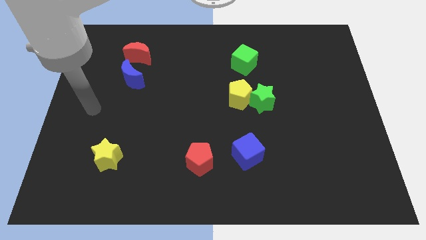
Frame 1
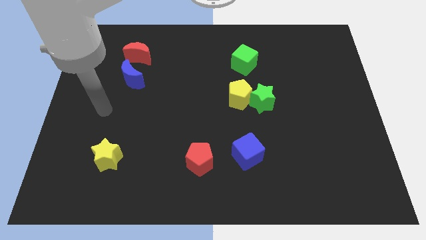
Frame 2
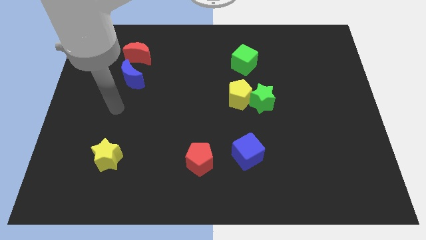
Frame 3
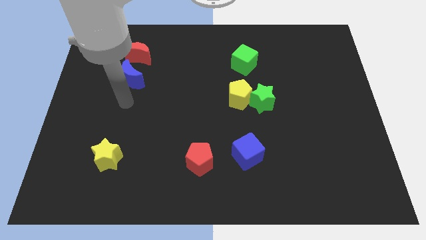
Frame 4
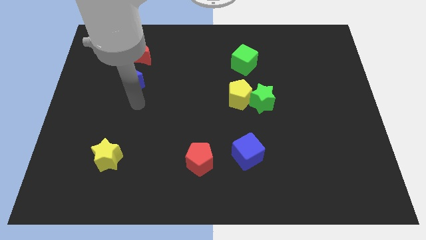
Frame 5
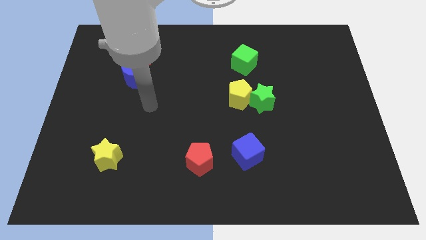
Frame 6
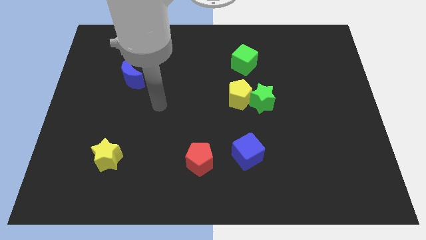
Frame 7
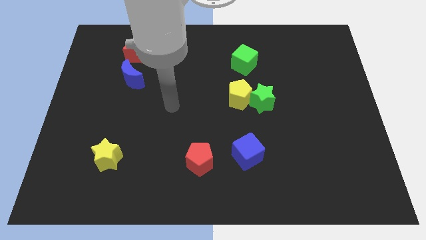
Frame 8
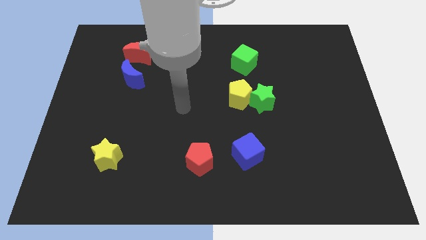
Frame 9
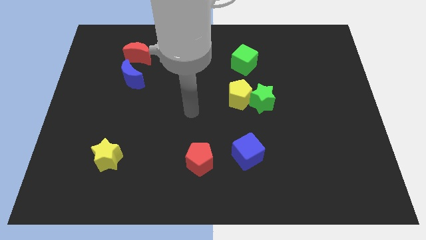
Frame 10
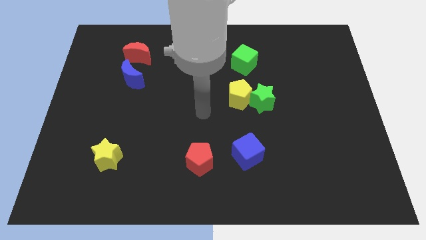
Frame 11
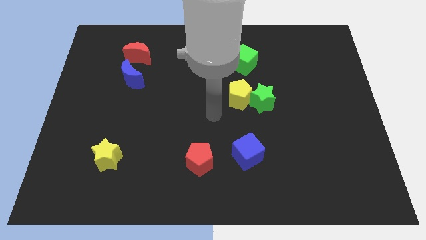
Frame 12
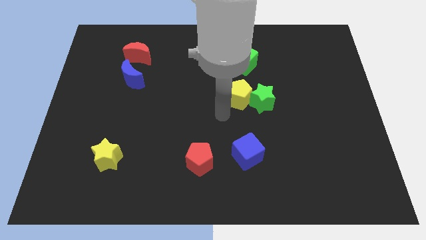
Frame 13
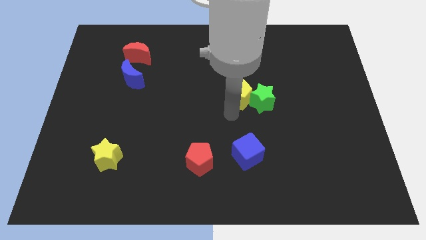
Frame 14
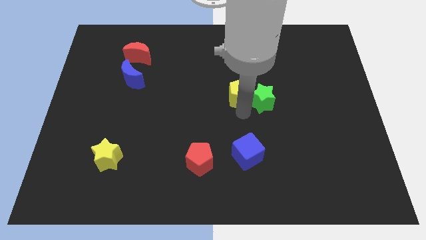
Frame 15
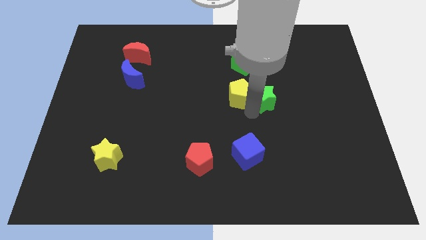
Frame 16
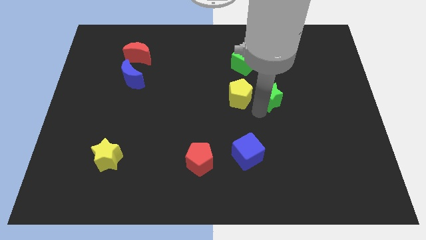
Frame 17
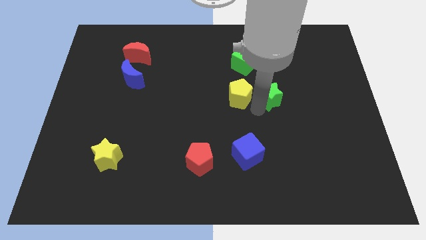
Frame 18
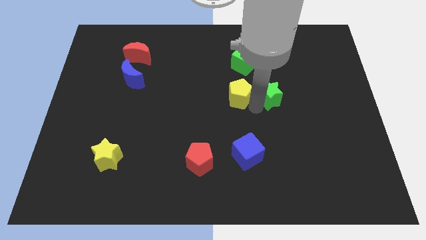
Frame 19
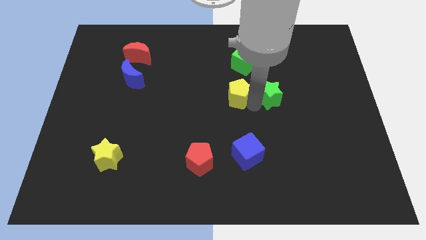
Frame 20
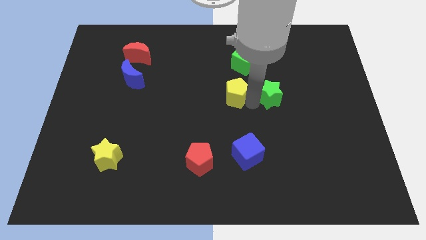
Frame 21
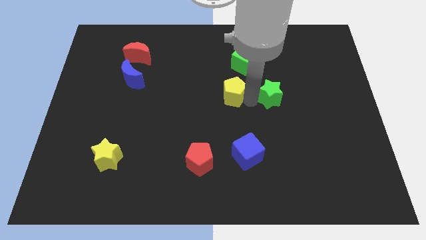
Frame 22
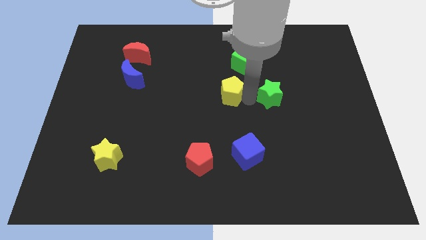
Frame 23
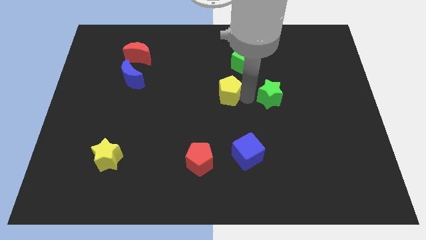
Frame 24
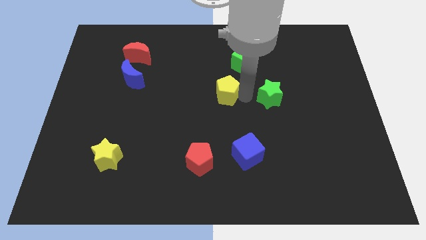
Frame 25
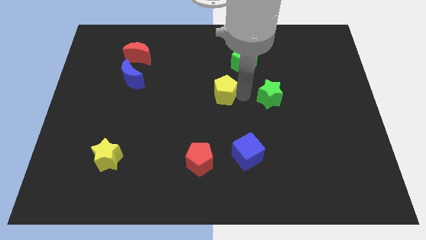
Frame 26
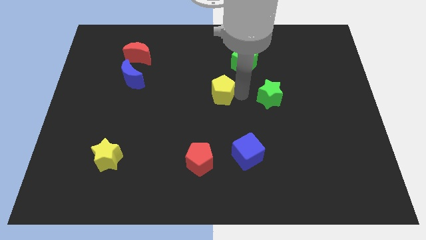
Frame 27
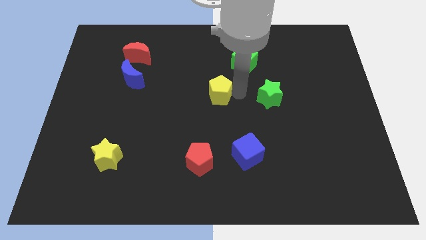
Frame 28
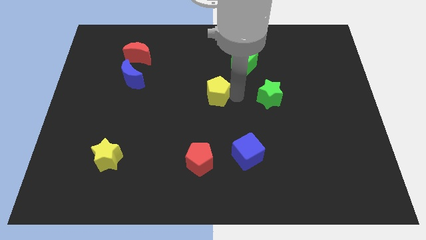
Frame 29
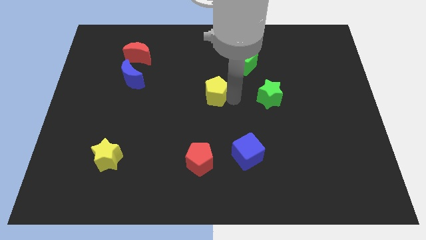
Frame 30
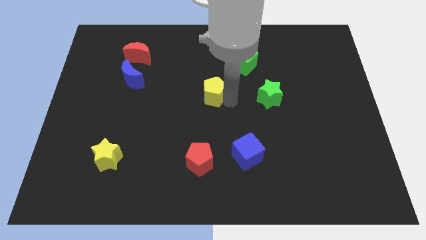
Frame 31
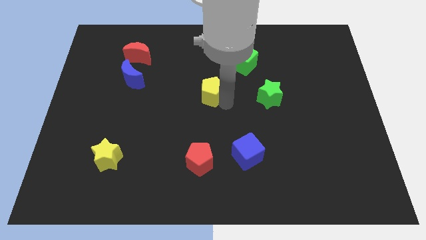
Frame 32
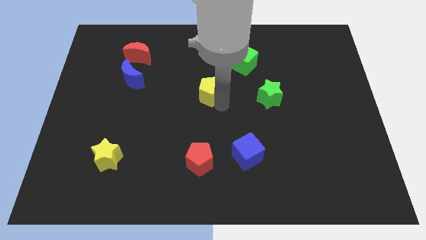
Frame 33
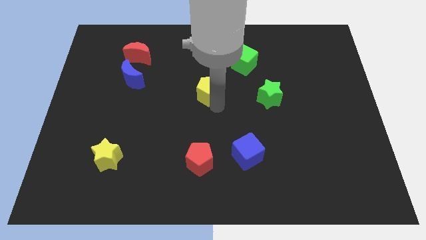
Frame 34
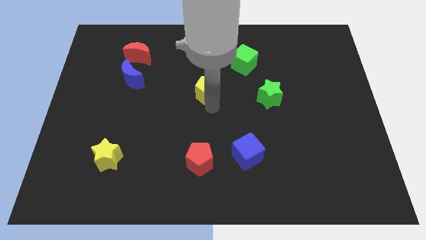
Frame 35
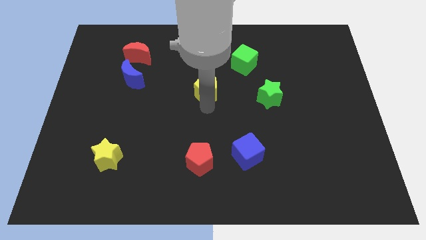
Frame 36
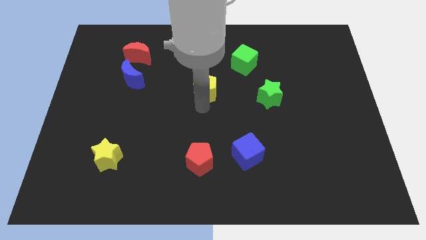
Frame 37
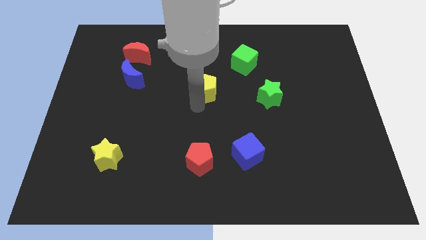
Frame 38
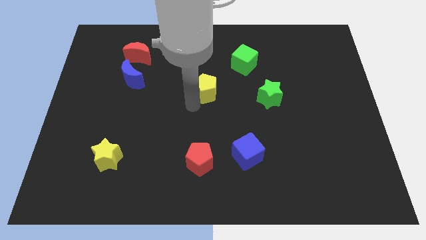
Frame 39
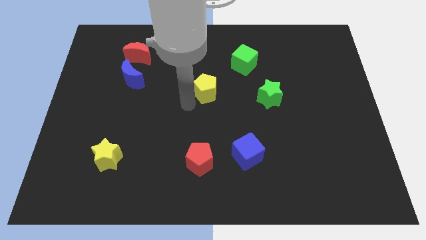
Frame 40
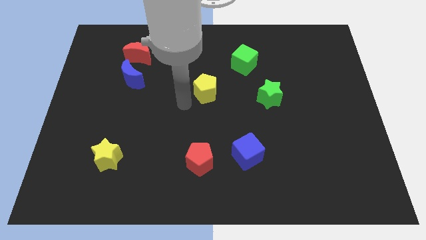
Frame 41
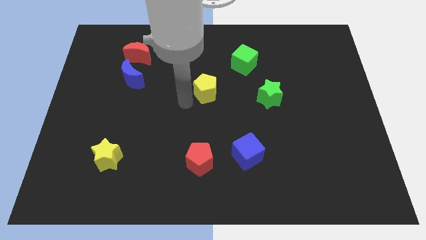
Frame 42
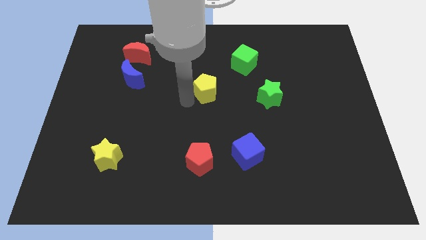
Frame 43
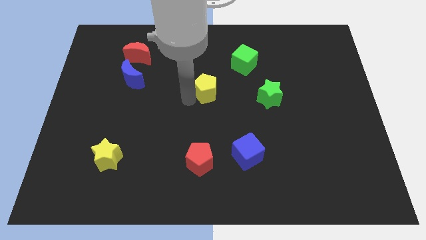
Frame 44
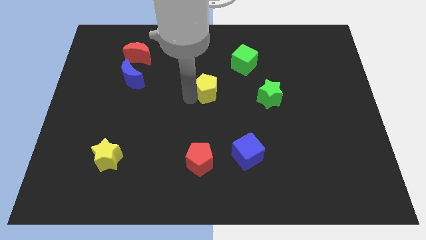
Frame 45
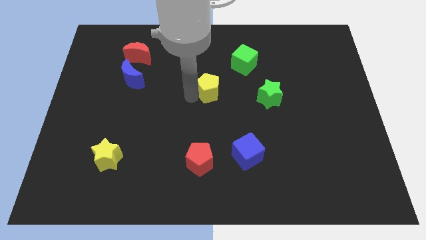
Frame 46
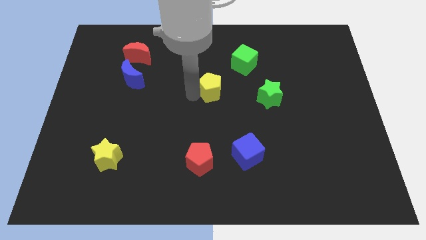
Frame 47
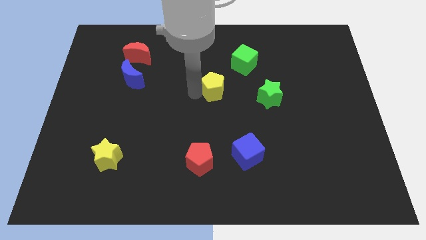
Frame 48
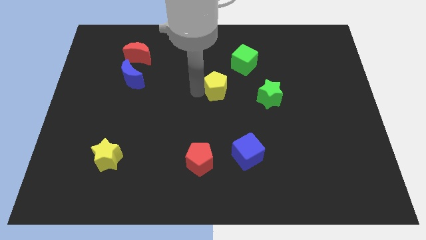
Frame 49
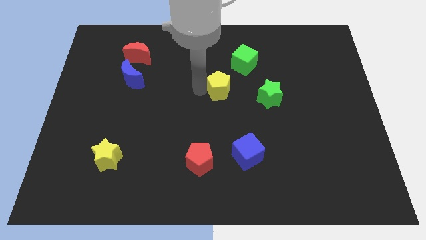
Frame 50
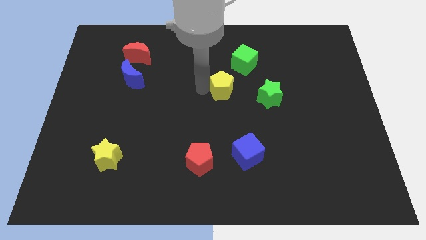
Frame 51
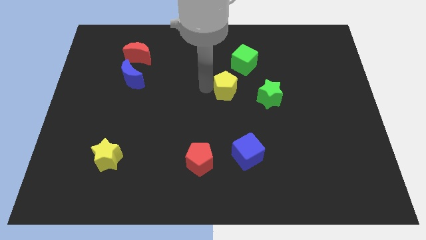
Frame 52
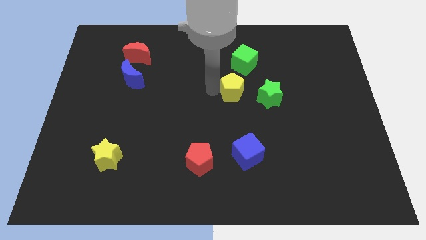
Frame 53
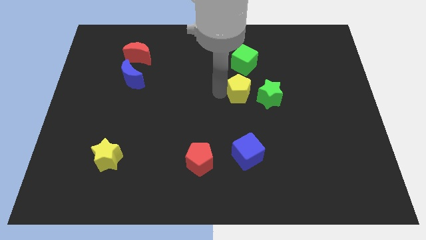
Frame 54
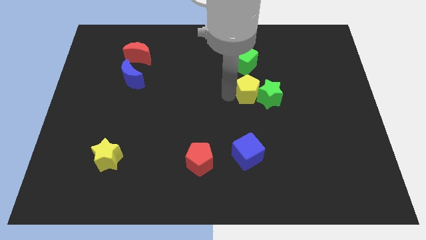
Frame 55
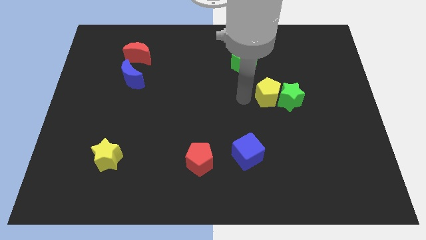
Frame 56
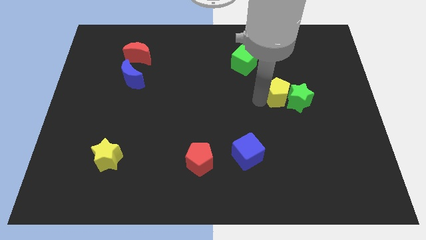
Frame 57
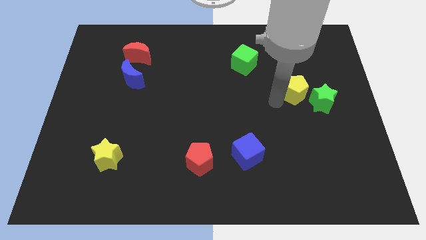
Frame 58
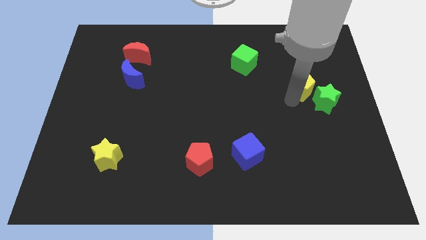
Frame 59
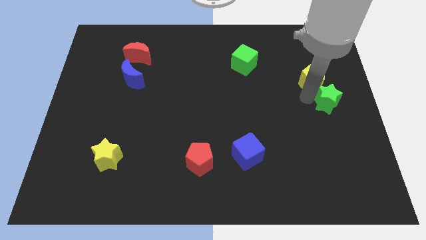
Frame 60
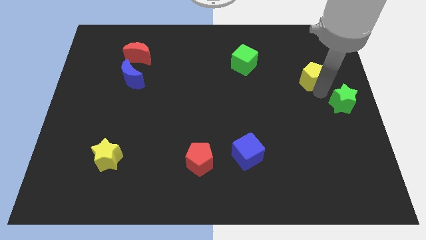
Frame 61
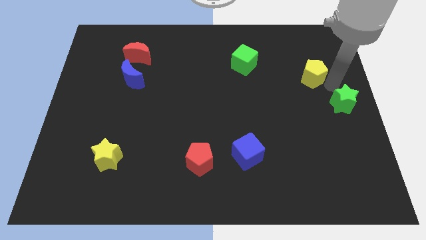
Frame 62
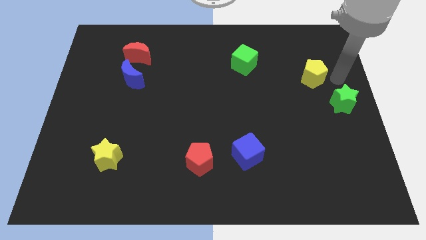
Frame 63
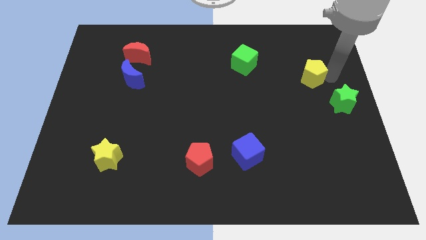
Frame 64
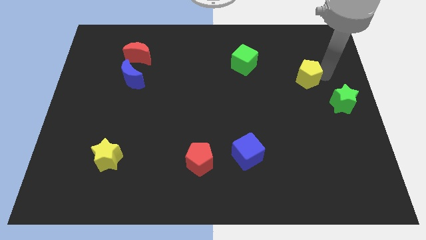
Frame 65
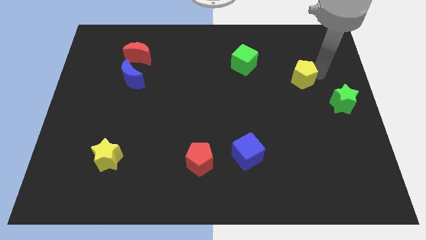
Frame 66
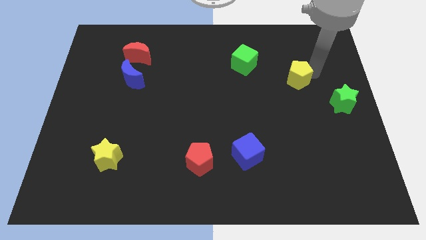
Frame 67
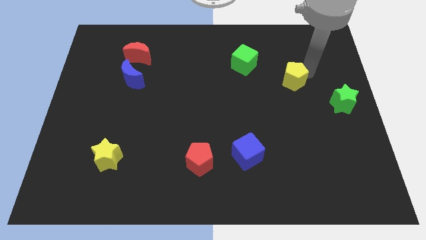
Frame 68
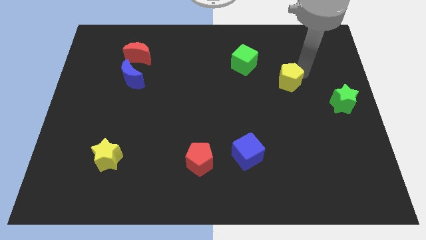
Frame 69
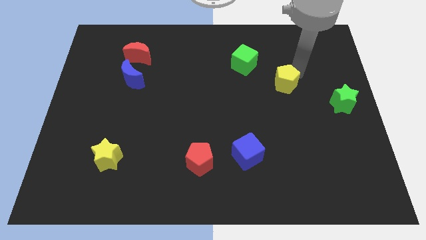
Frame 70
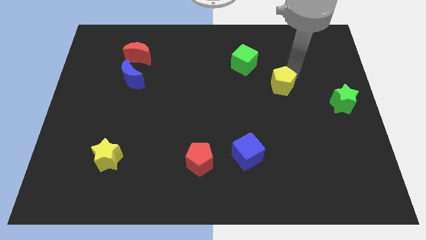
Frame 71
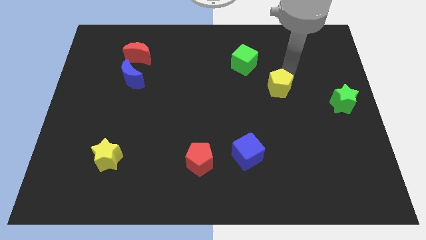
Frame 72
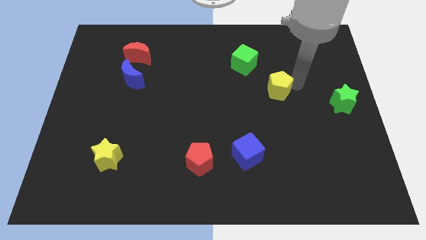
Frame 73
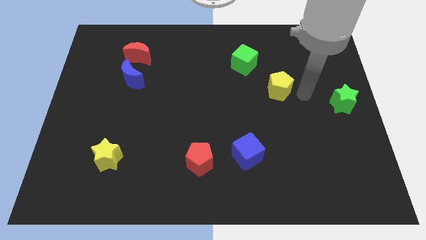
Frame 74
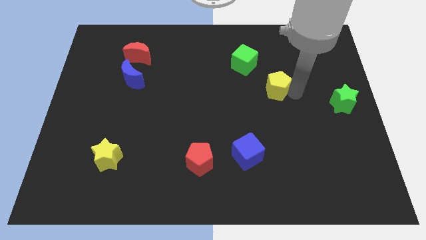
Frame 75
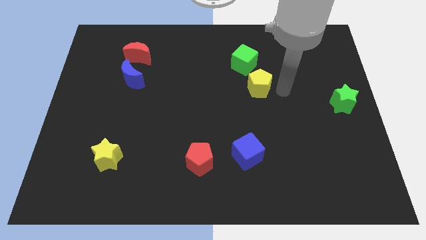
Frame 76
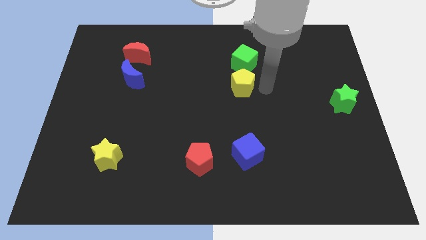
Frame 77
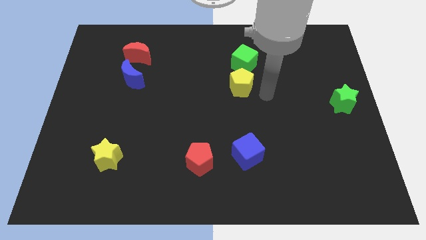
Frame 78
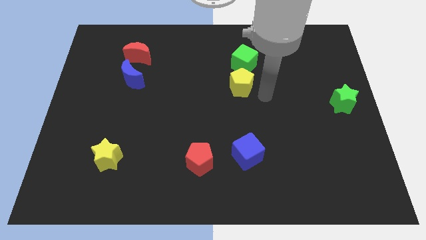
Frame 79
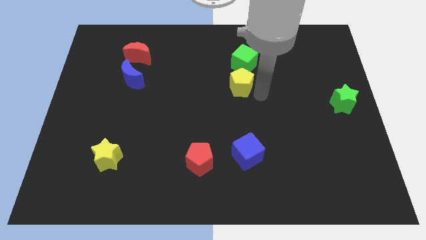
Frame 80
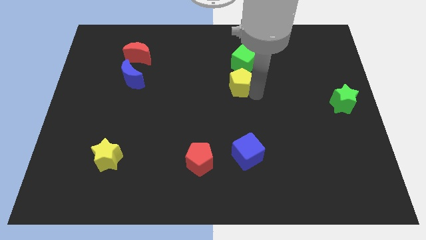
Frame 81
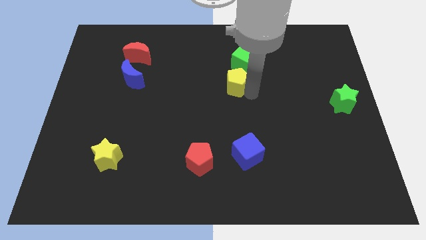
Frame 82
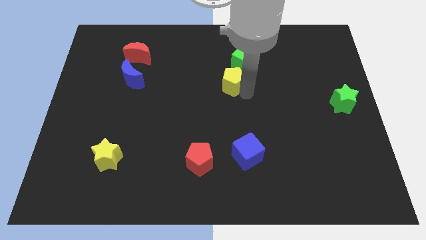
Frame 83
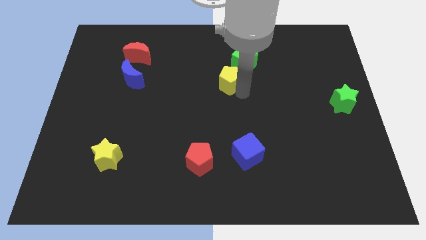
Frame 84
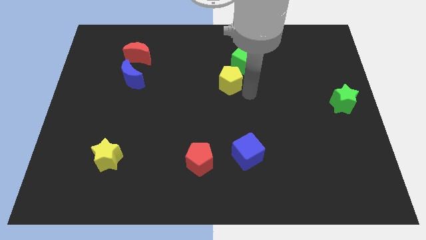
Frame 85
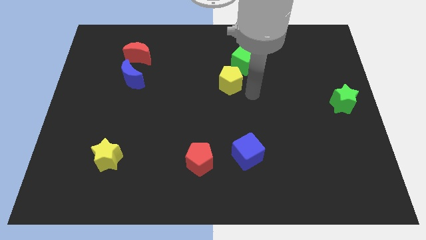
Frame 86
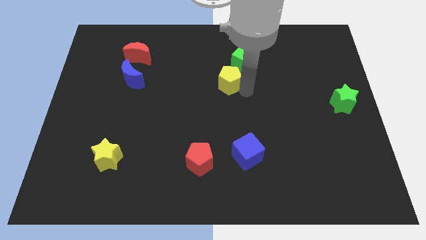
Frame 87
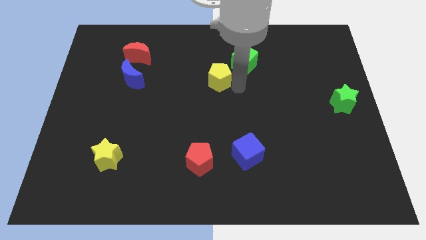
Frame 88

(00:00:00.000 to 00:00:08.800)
slightly push the yellow pentagon upwards and to the left
